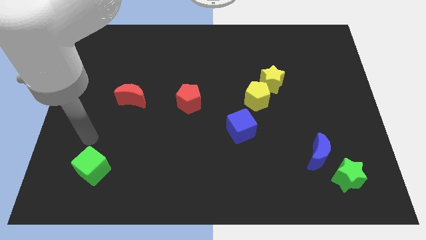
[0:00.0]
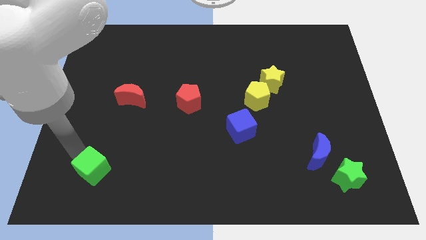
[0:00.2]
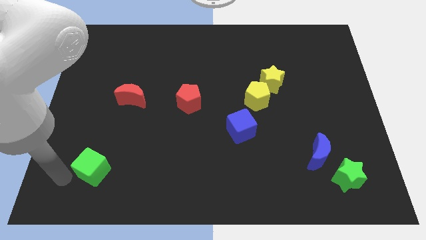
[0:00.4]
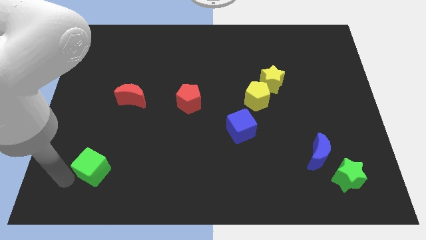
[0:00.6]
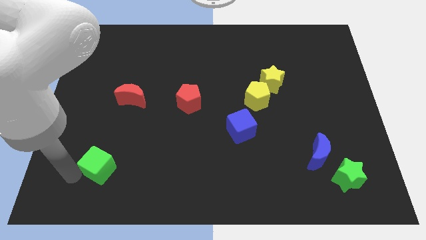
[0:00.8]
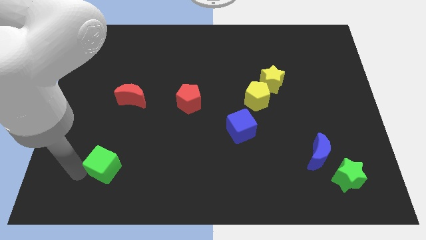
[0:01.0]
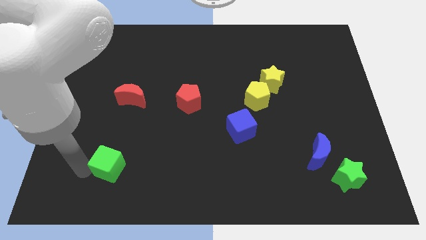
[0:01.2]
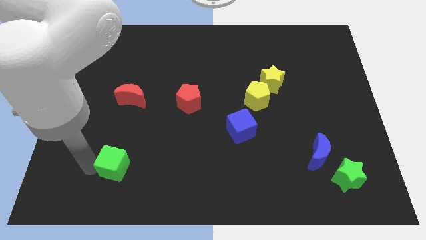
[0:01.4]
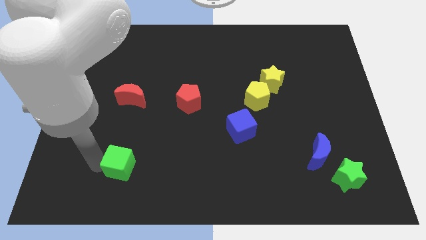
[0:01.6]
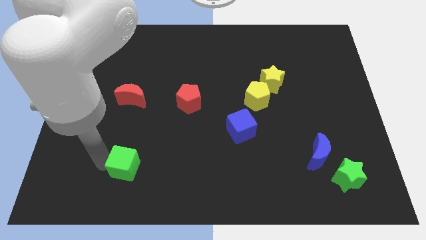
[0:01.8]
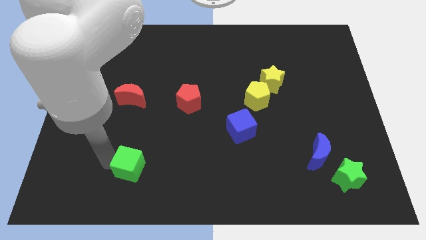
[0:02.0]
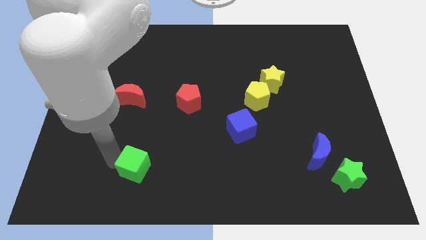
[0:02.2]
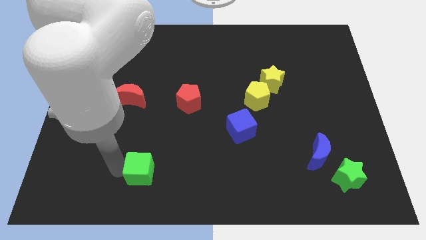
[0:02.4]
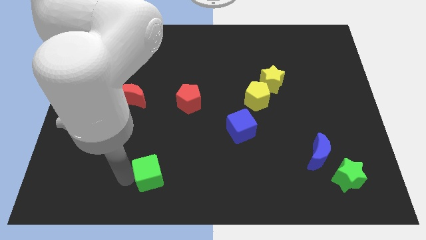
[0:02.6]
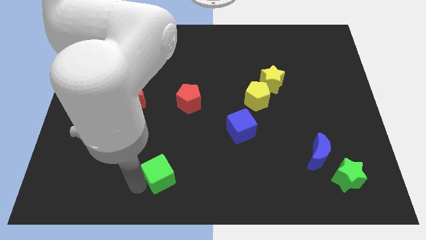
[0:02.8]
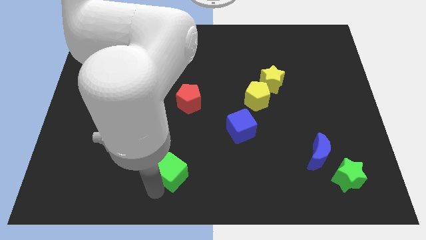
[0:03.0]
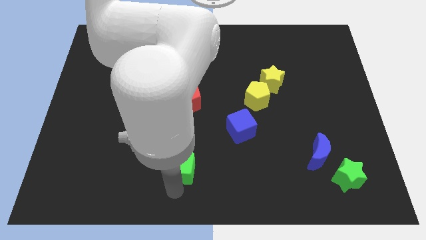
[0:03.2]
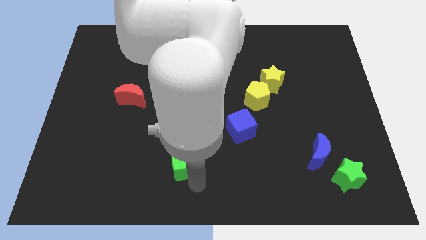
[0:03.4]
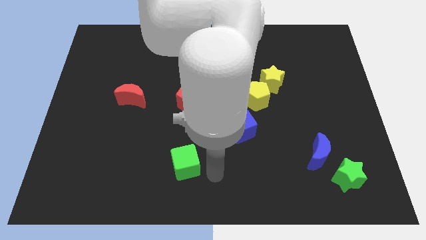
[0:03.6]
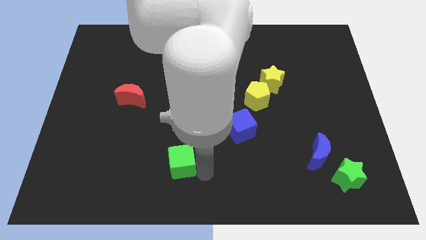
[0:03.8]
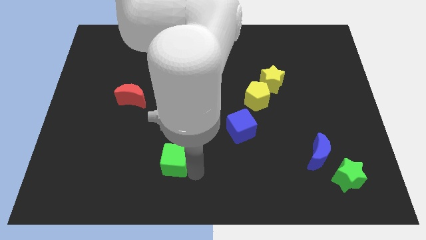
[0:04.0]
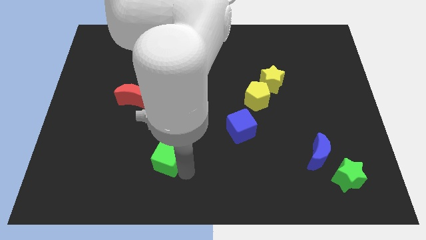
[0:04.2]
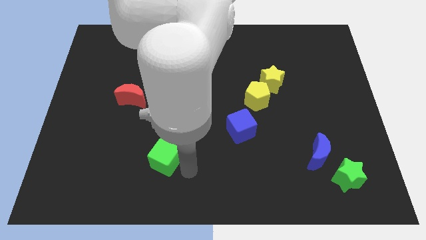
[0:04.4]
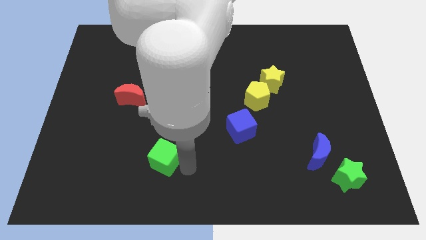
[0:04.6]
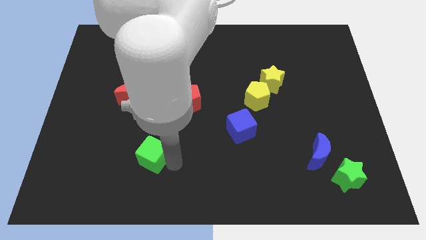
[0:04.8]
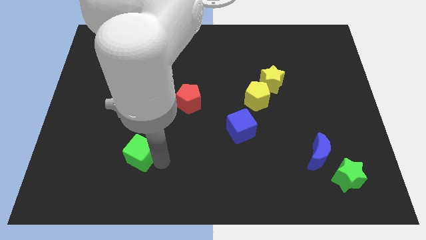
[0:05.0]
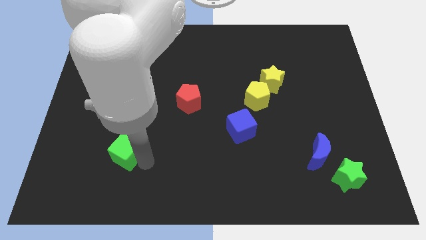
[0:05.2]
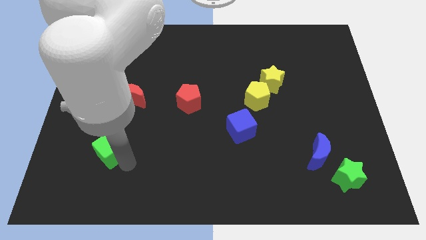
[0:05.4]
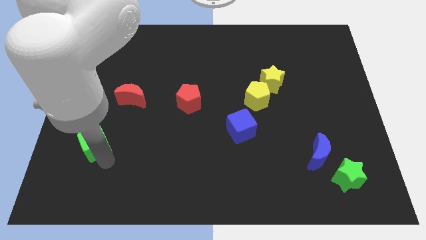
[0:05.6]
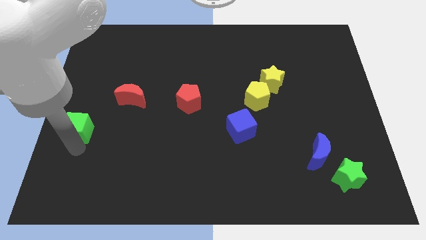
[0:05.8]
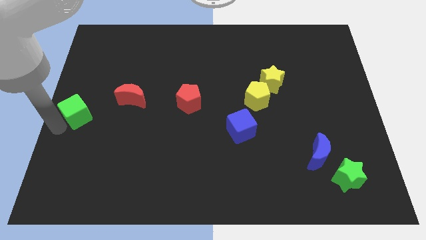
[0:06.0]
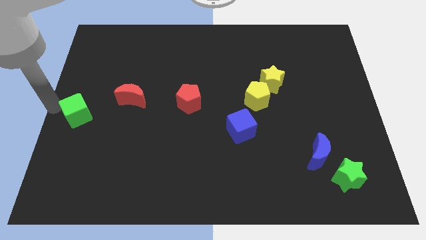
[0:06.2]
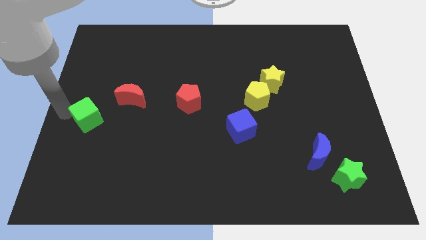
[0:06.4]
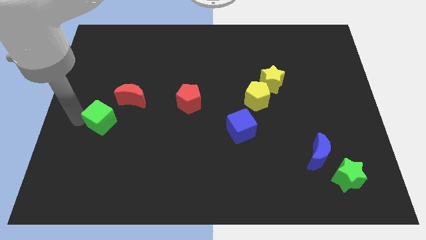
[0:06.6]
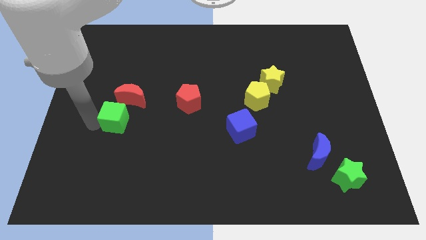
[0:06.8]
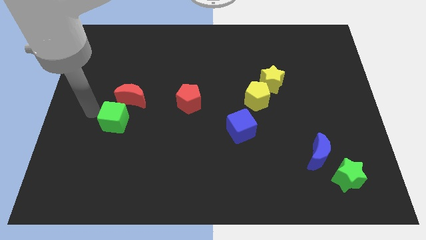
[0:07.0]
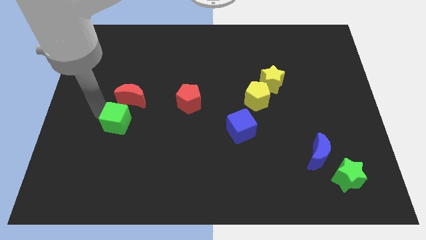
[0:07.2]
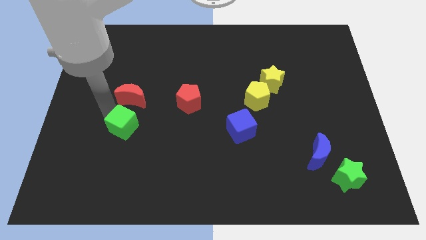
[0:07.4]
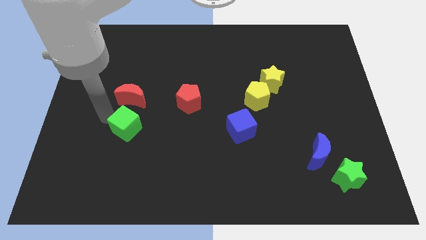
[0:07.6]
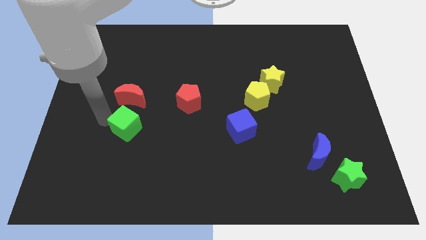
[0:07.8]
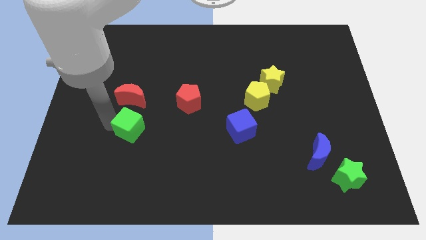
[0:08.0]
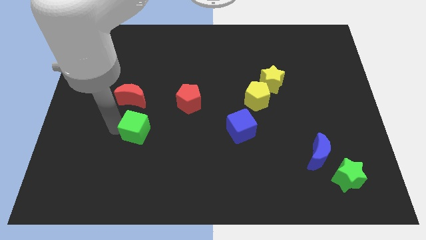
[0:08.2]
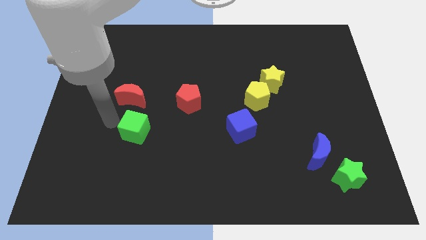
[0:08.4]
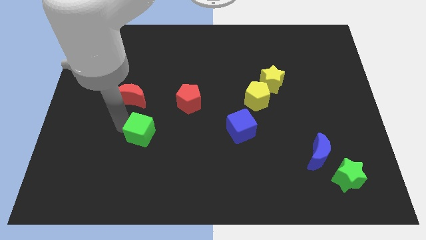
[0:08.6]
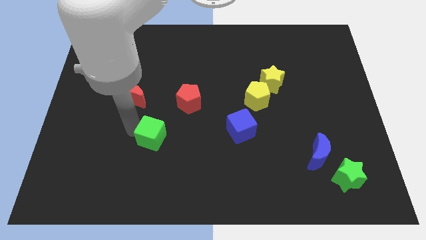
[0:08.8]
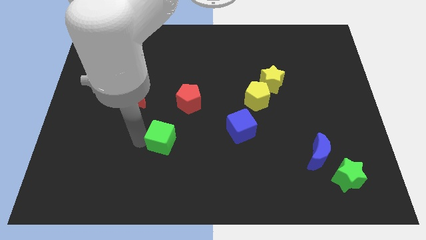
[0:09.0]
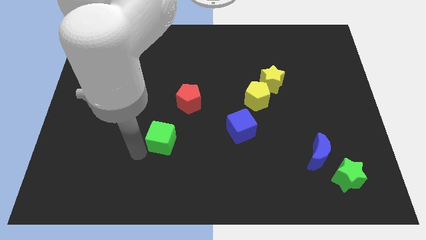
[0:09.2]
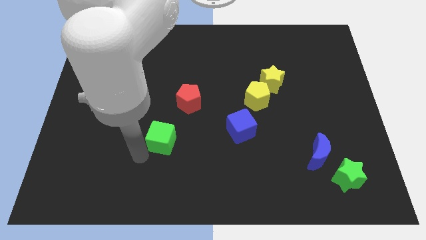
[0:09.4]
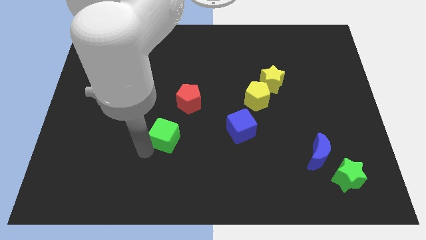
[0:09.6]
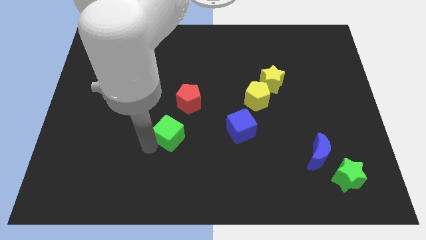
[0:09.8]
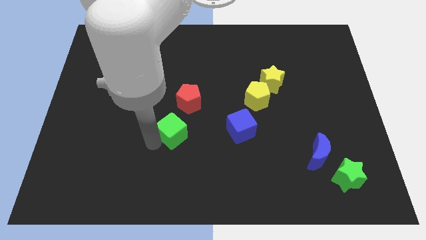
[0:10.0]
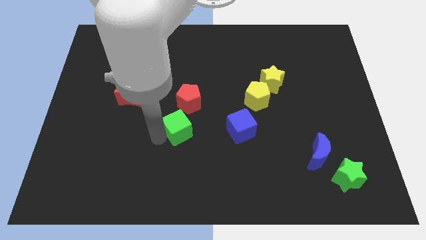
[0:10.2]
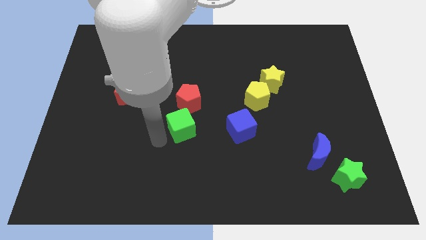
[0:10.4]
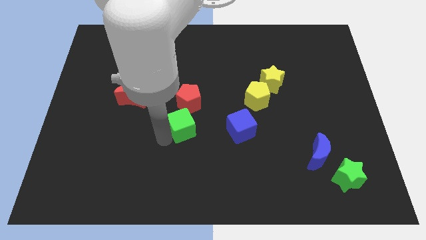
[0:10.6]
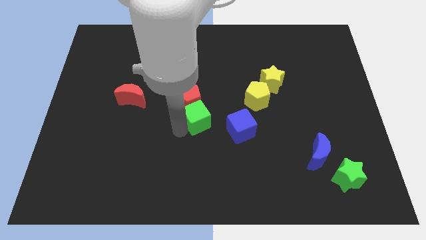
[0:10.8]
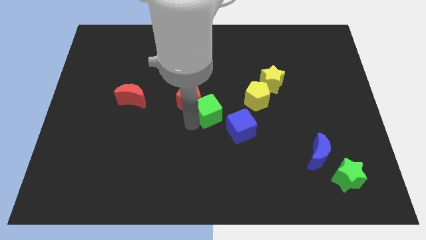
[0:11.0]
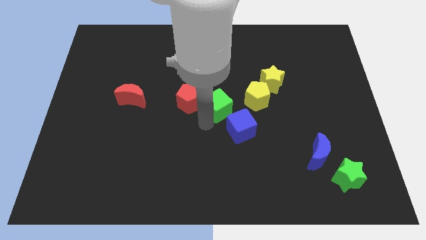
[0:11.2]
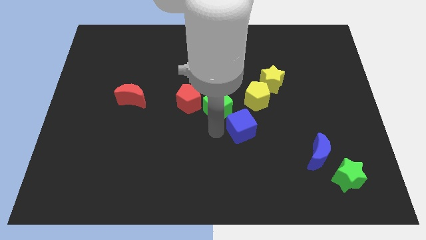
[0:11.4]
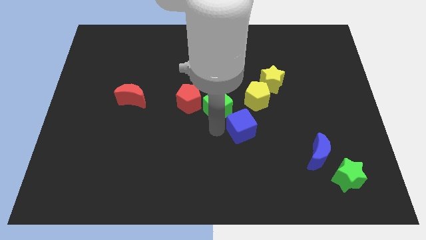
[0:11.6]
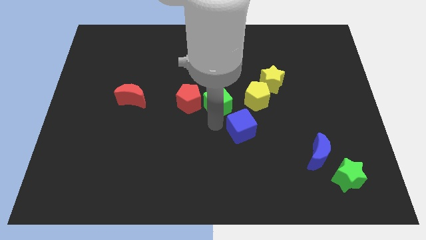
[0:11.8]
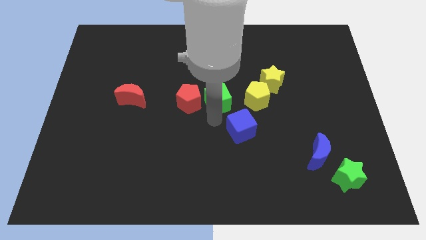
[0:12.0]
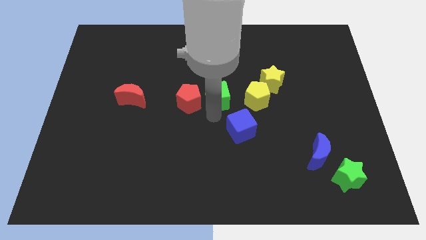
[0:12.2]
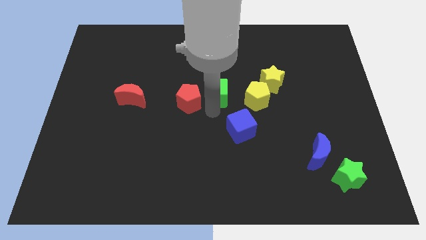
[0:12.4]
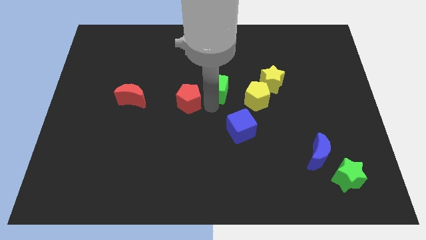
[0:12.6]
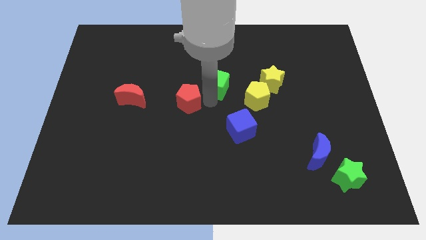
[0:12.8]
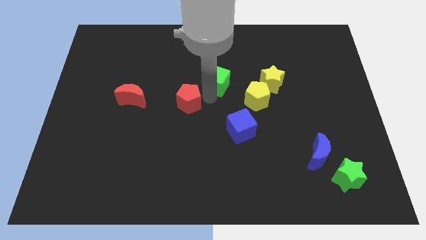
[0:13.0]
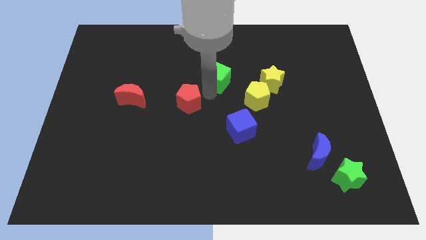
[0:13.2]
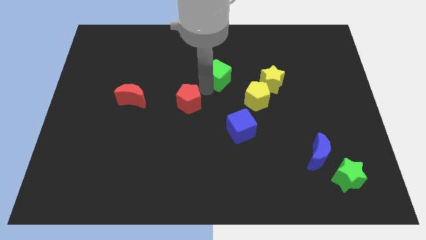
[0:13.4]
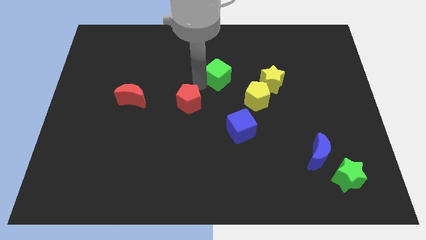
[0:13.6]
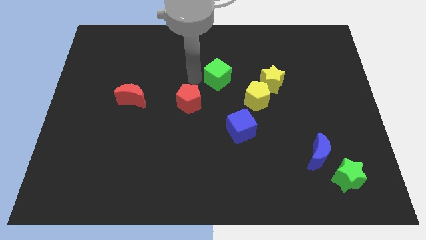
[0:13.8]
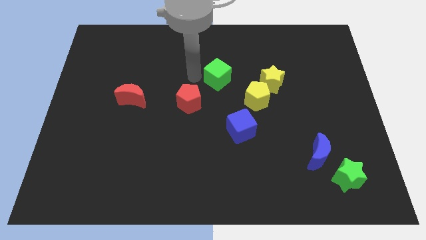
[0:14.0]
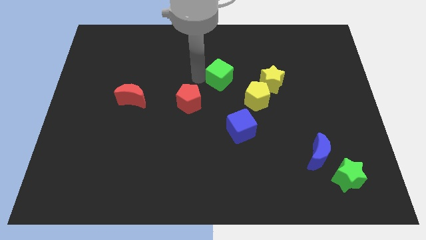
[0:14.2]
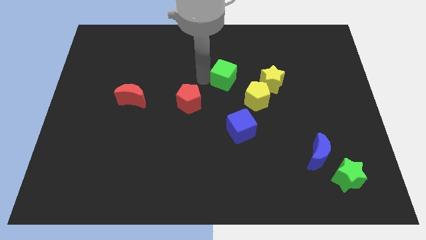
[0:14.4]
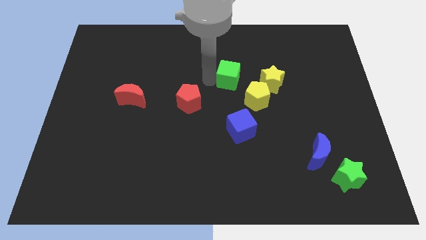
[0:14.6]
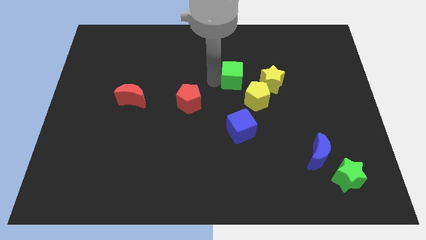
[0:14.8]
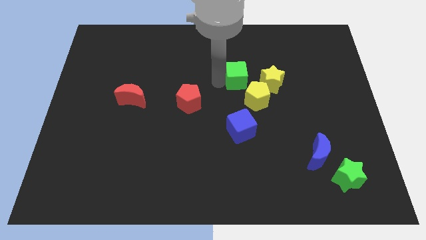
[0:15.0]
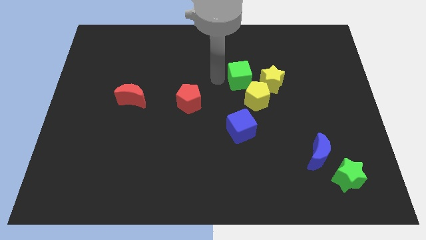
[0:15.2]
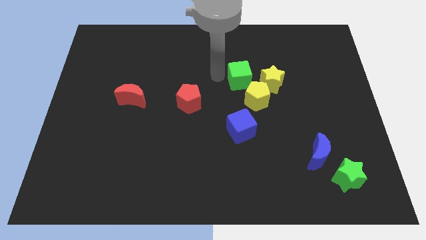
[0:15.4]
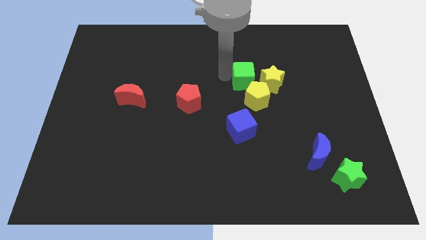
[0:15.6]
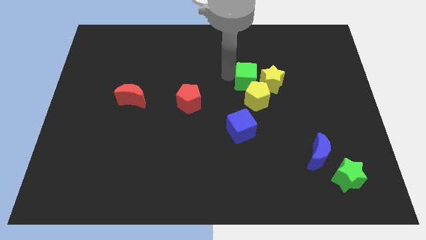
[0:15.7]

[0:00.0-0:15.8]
slide the green cube close to the yellow star
